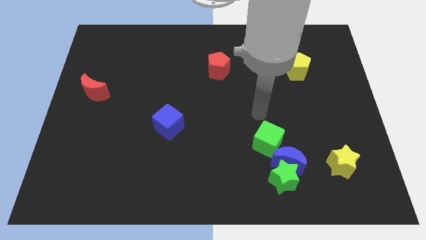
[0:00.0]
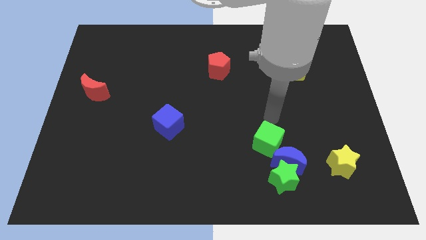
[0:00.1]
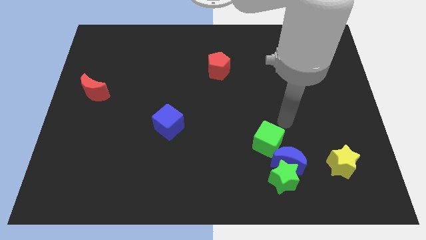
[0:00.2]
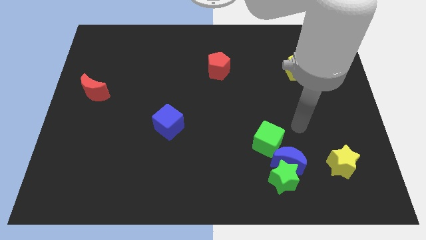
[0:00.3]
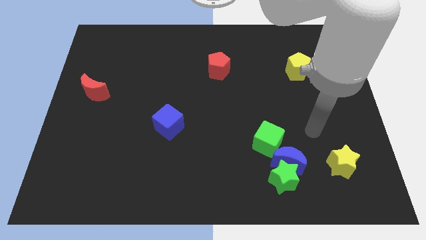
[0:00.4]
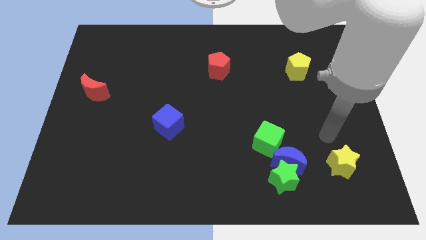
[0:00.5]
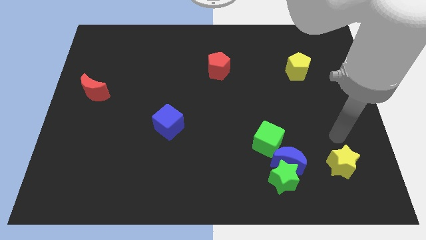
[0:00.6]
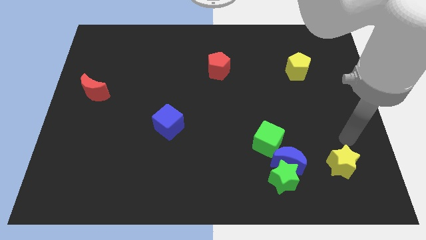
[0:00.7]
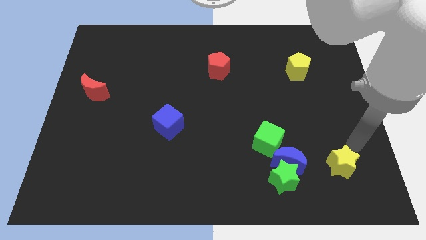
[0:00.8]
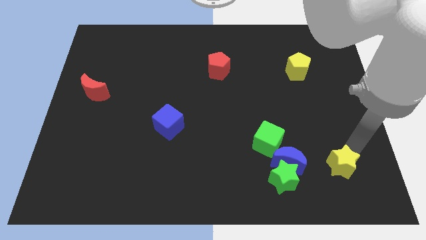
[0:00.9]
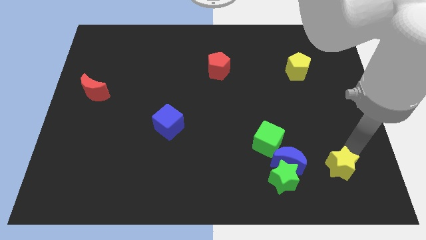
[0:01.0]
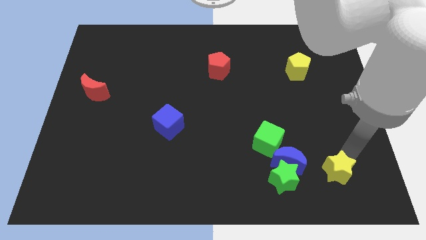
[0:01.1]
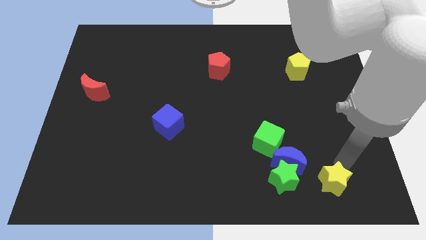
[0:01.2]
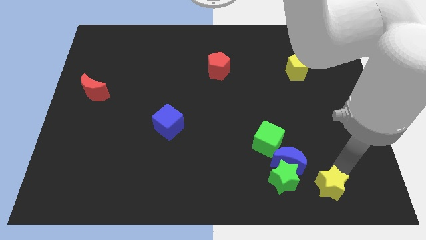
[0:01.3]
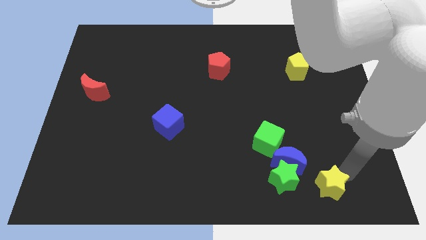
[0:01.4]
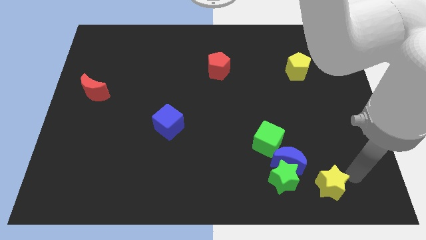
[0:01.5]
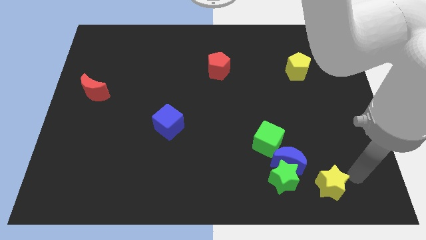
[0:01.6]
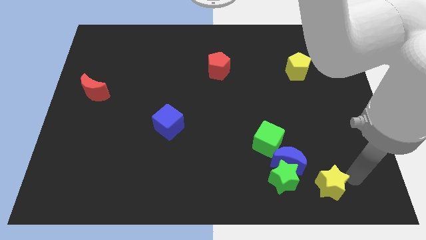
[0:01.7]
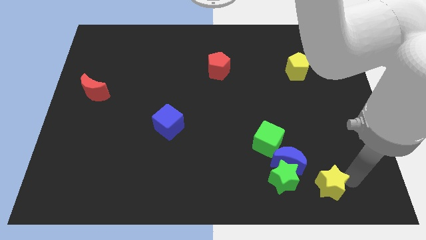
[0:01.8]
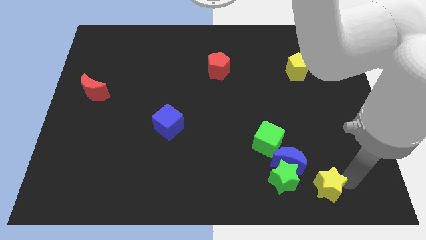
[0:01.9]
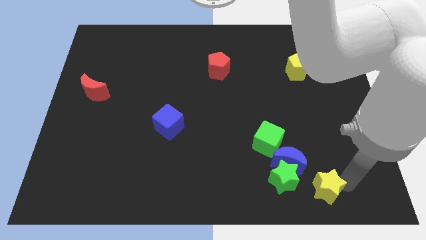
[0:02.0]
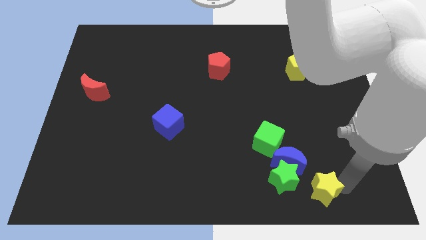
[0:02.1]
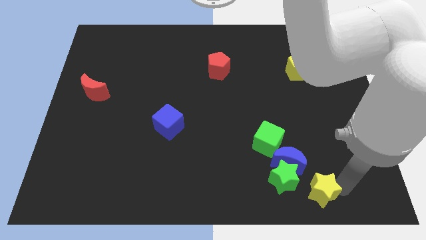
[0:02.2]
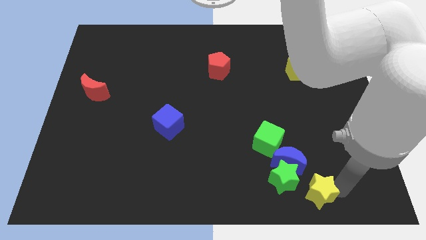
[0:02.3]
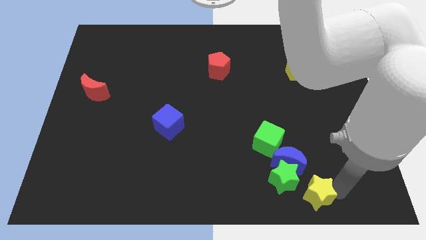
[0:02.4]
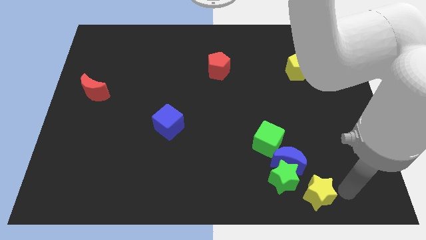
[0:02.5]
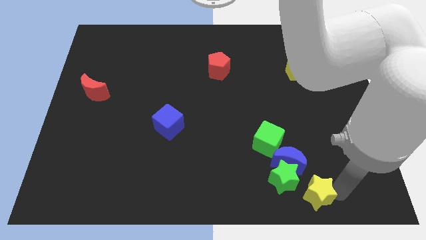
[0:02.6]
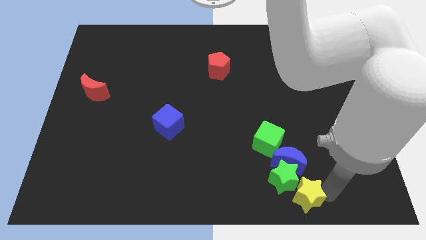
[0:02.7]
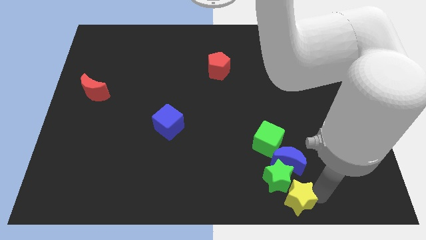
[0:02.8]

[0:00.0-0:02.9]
slide the yellow star left a bit

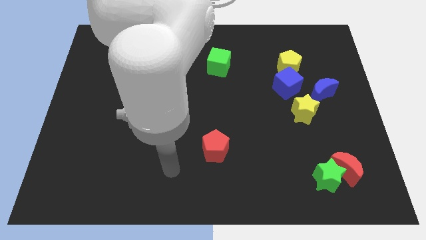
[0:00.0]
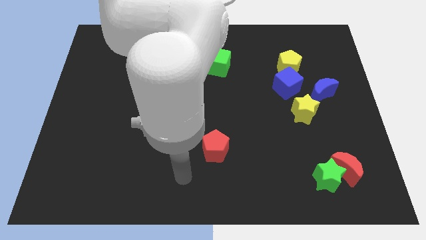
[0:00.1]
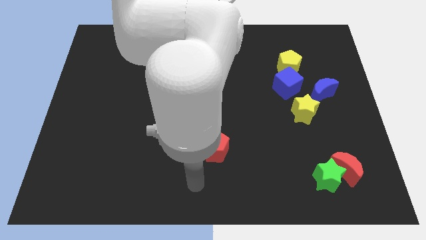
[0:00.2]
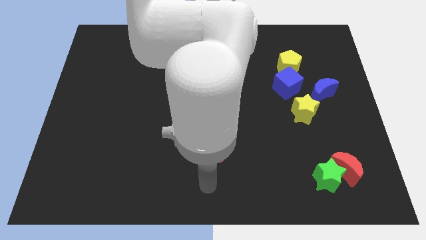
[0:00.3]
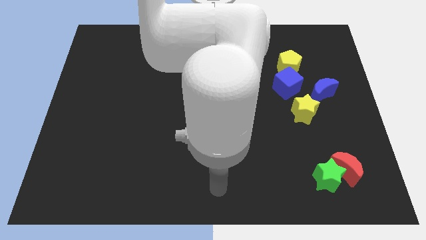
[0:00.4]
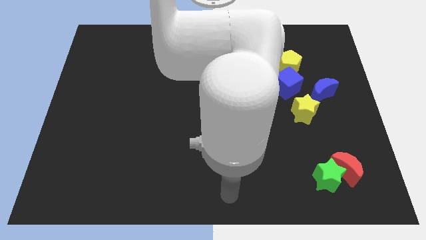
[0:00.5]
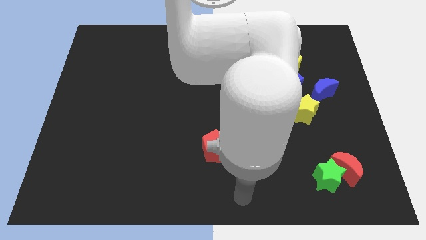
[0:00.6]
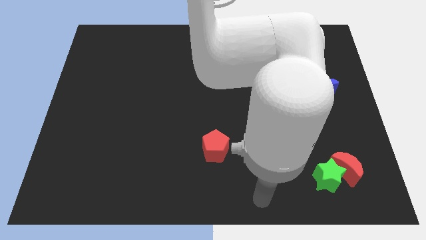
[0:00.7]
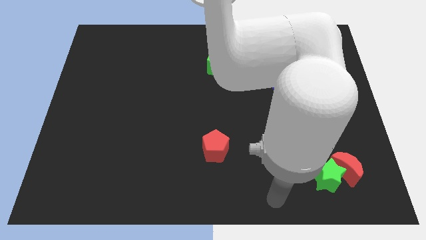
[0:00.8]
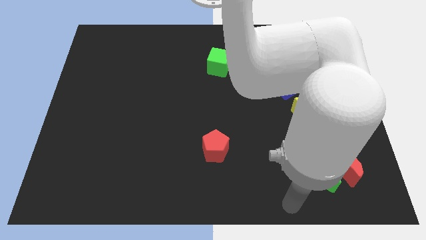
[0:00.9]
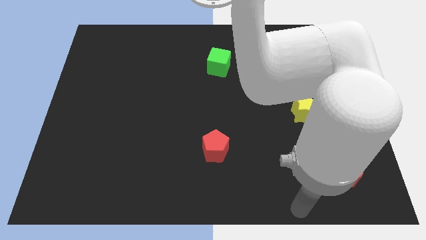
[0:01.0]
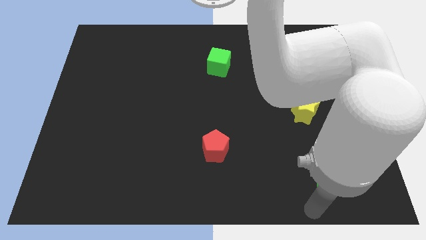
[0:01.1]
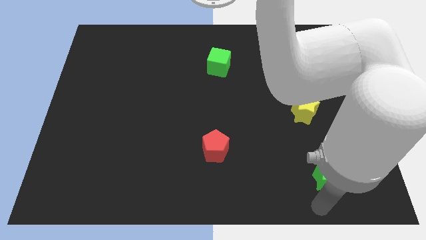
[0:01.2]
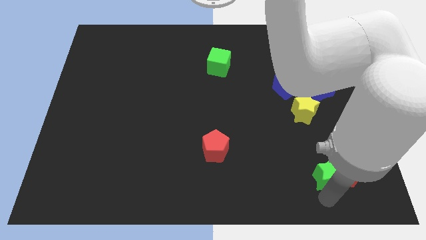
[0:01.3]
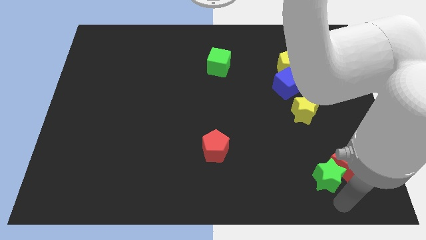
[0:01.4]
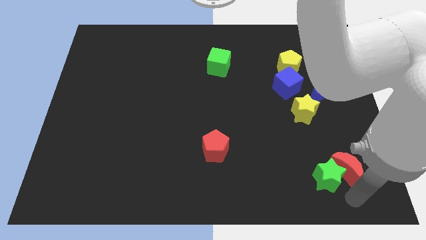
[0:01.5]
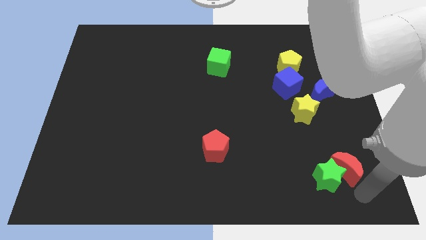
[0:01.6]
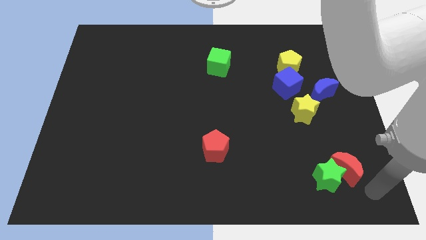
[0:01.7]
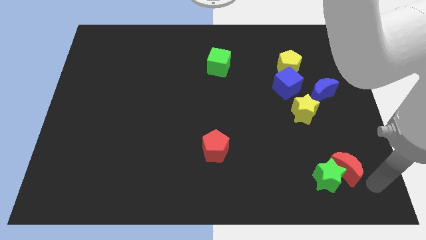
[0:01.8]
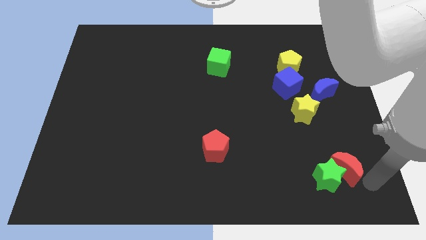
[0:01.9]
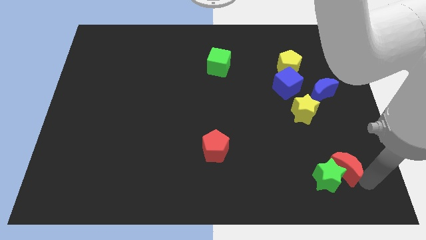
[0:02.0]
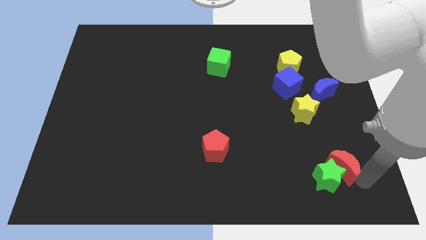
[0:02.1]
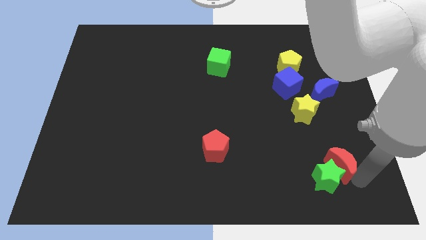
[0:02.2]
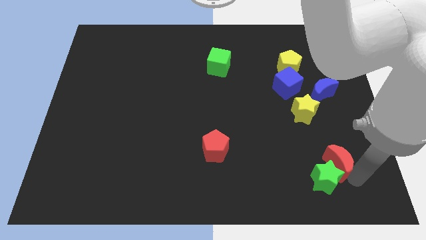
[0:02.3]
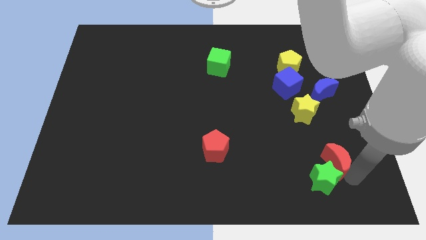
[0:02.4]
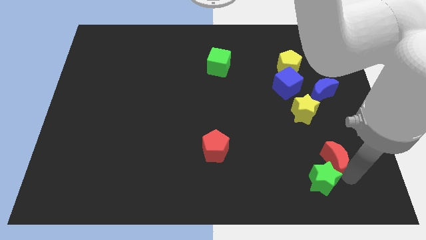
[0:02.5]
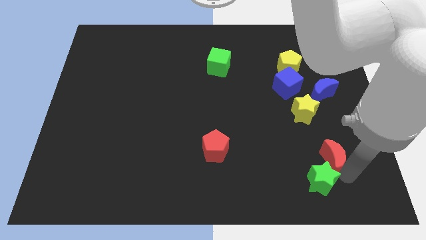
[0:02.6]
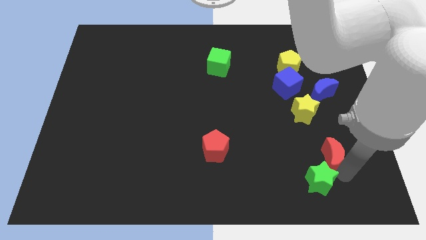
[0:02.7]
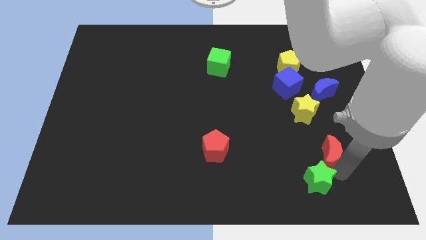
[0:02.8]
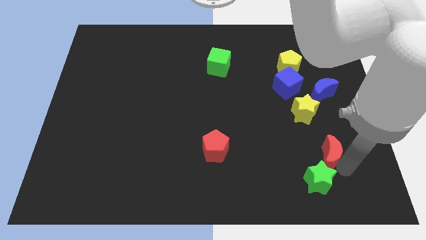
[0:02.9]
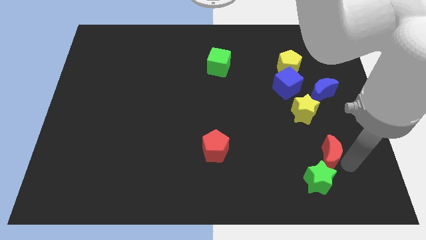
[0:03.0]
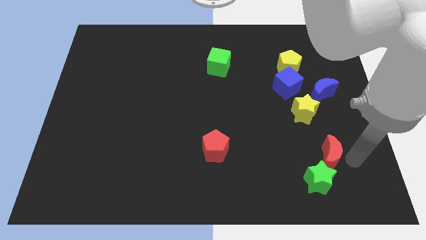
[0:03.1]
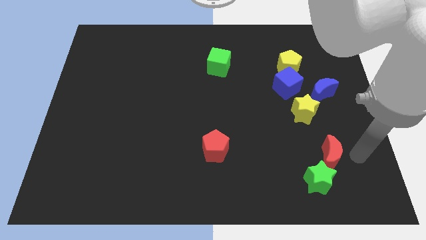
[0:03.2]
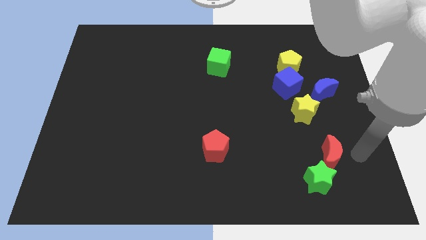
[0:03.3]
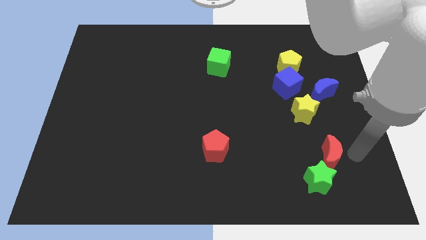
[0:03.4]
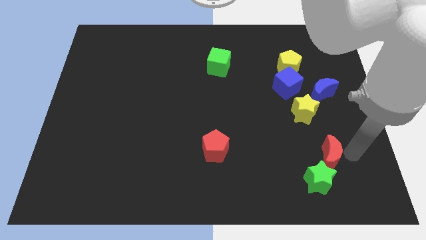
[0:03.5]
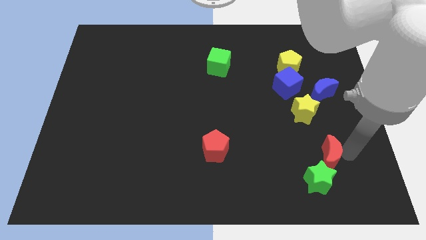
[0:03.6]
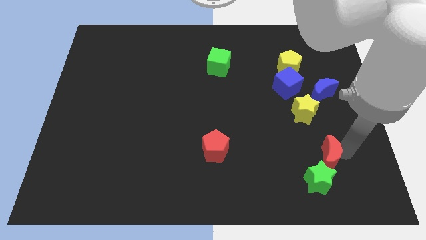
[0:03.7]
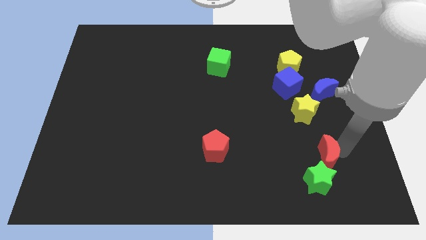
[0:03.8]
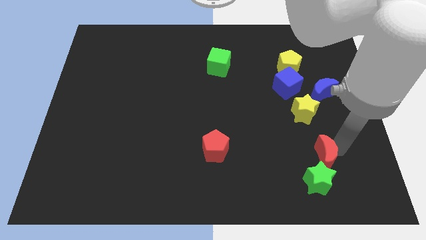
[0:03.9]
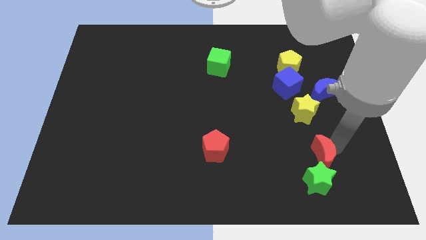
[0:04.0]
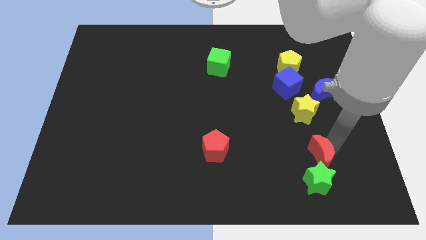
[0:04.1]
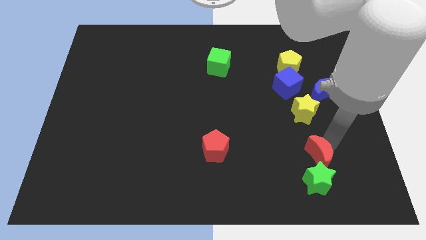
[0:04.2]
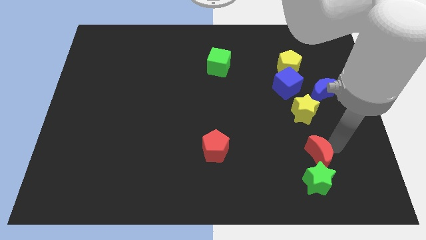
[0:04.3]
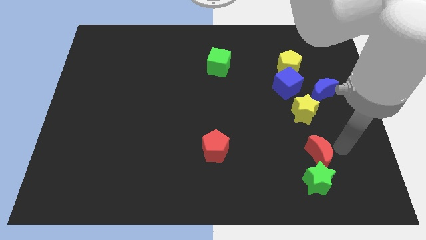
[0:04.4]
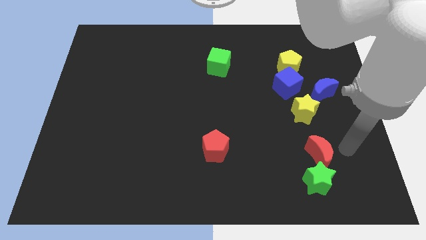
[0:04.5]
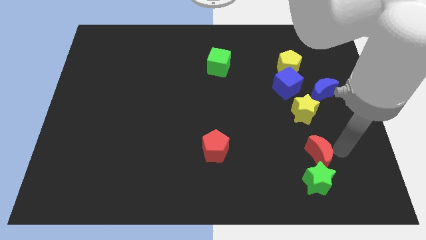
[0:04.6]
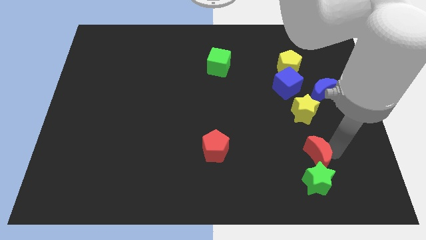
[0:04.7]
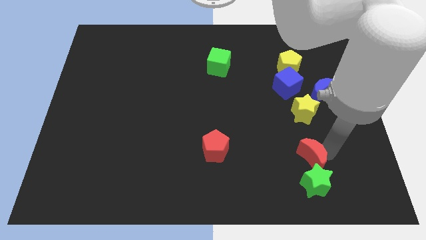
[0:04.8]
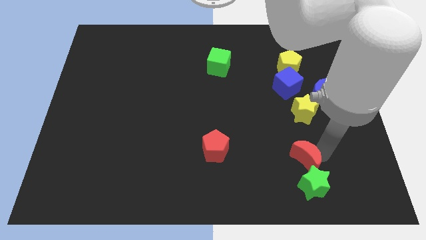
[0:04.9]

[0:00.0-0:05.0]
slide the red moon a bit to the left

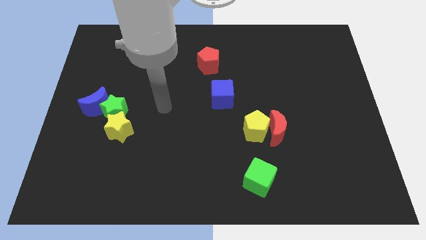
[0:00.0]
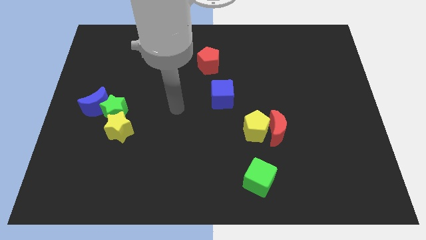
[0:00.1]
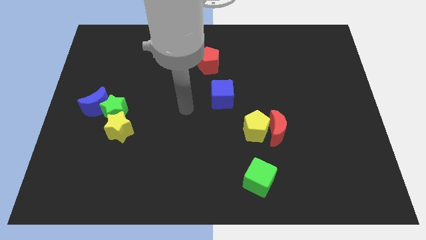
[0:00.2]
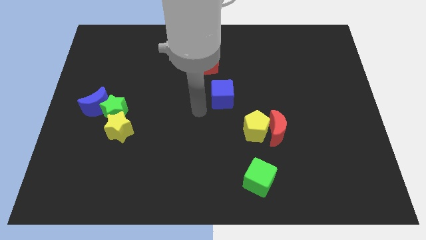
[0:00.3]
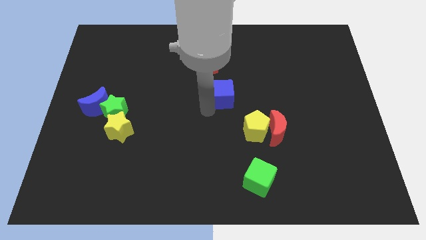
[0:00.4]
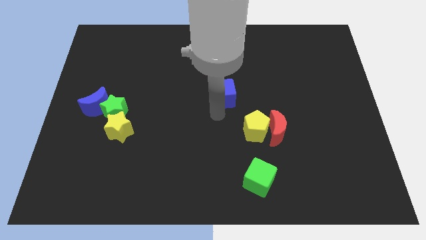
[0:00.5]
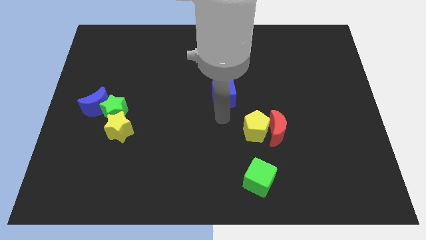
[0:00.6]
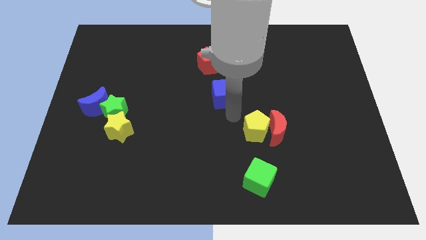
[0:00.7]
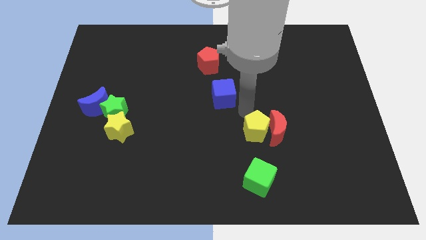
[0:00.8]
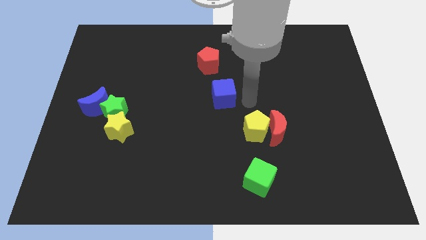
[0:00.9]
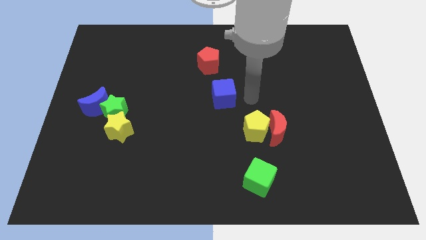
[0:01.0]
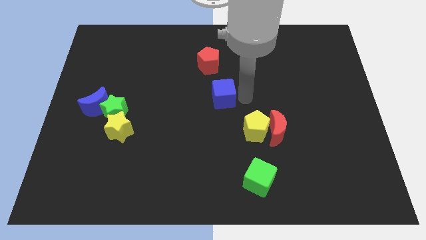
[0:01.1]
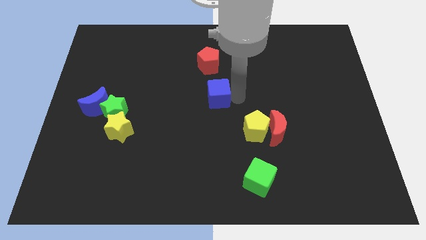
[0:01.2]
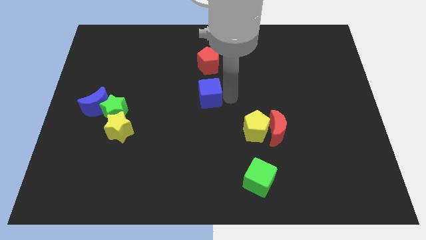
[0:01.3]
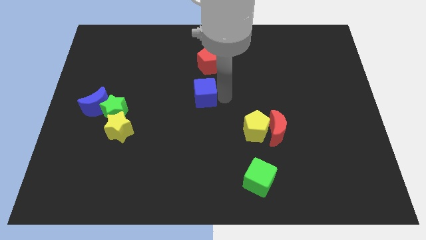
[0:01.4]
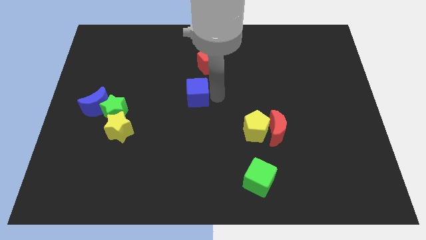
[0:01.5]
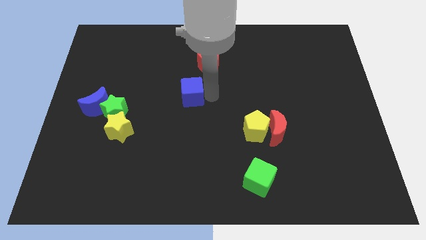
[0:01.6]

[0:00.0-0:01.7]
push the blue cube a bit to the left
